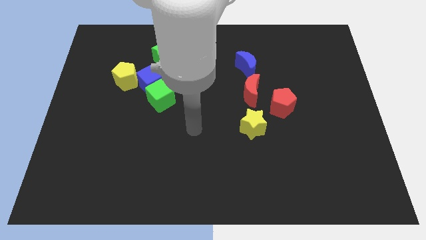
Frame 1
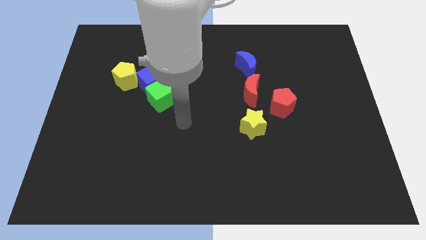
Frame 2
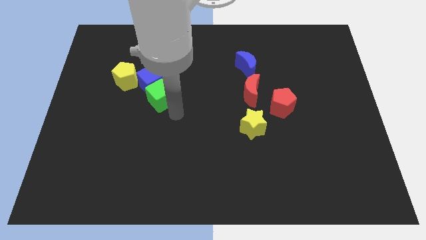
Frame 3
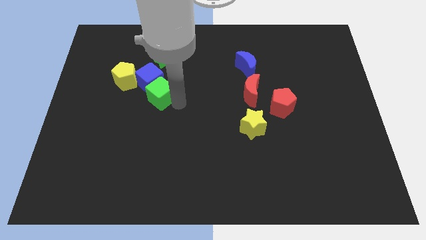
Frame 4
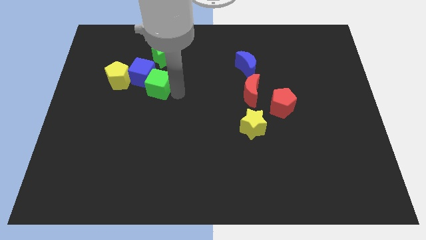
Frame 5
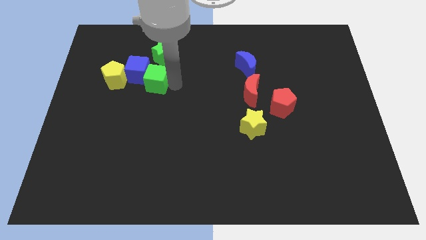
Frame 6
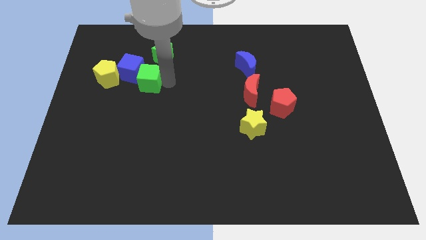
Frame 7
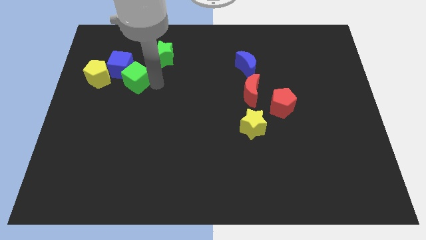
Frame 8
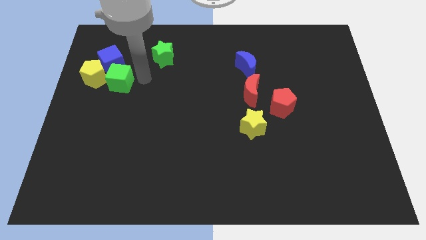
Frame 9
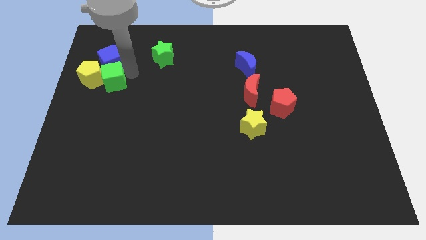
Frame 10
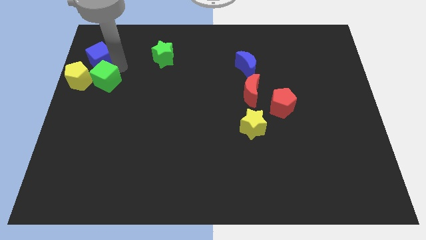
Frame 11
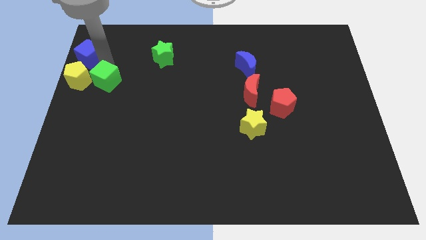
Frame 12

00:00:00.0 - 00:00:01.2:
pull the green cube apart from the blue cube

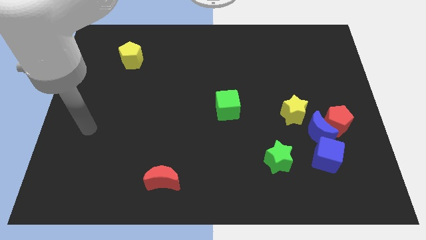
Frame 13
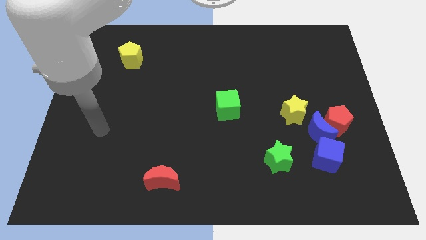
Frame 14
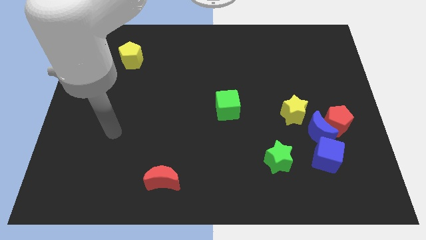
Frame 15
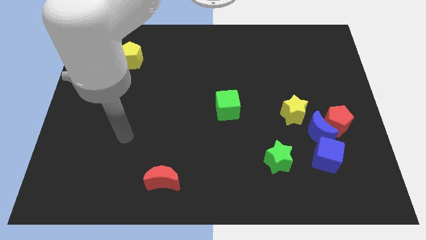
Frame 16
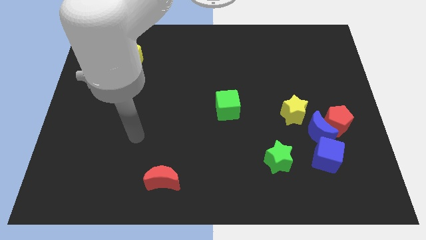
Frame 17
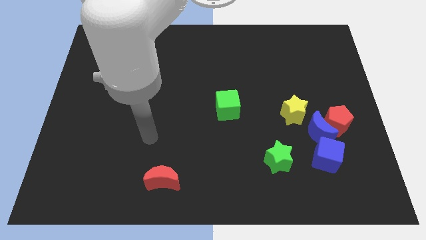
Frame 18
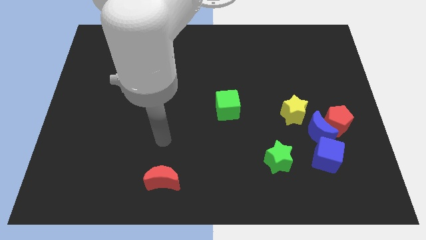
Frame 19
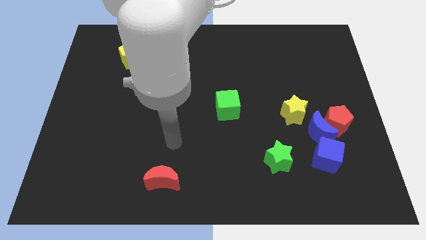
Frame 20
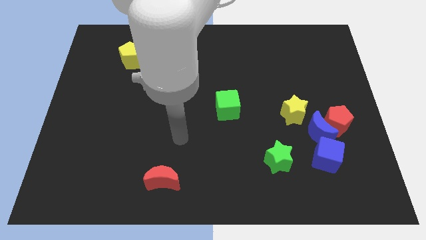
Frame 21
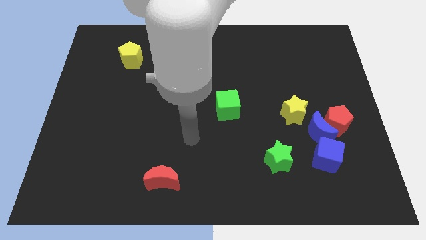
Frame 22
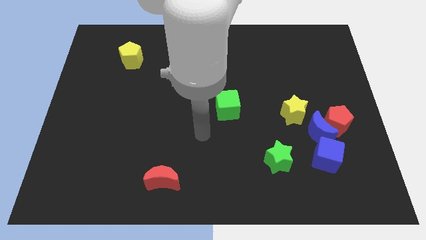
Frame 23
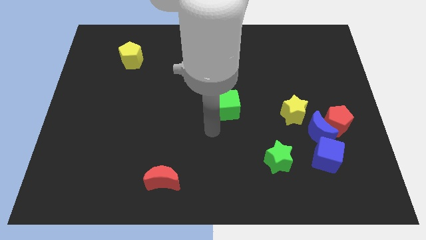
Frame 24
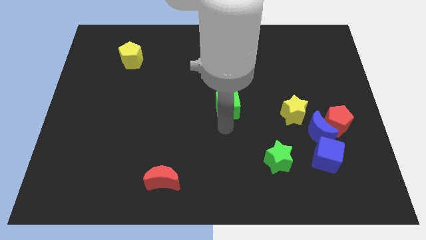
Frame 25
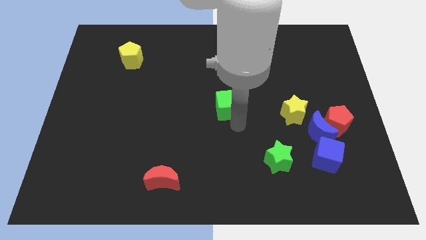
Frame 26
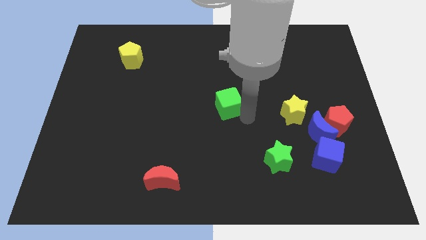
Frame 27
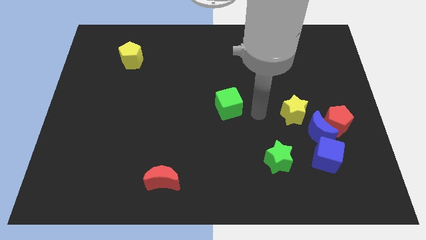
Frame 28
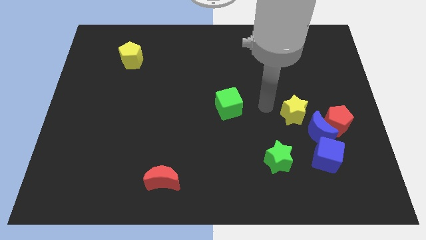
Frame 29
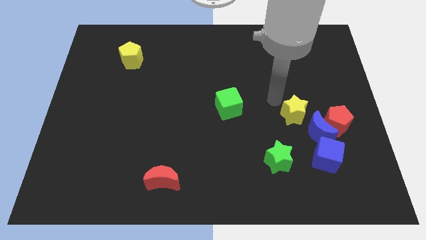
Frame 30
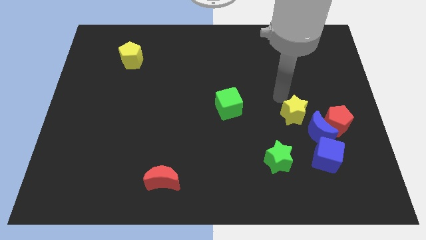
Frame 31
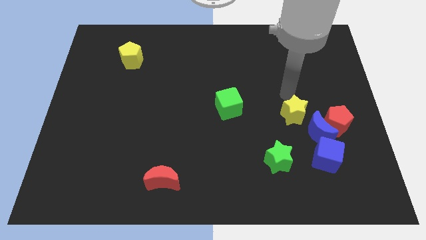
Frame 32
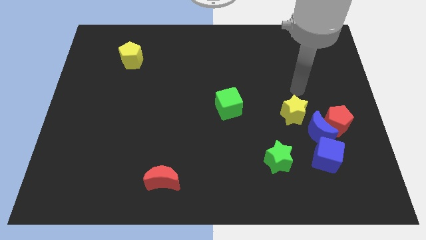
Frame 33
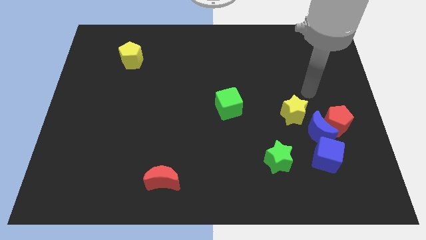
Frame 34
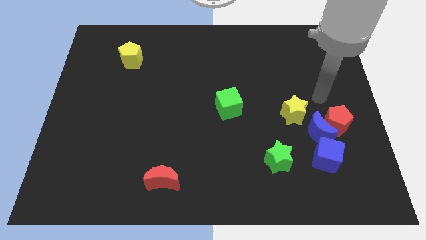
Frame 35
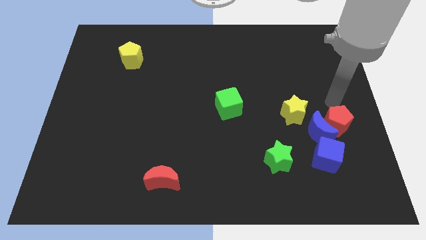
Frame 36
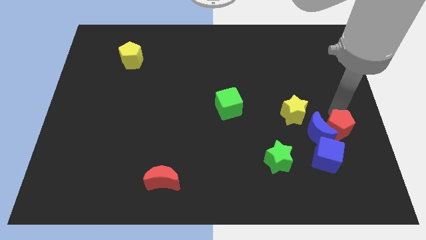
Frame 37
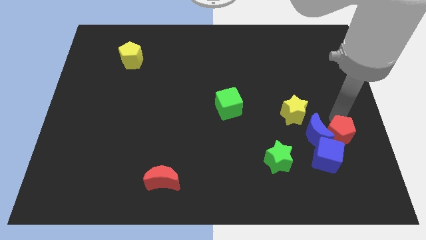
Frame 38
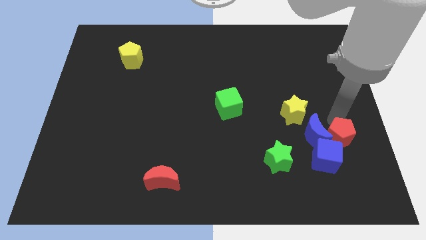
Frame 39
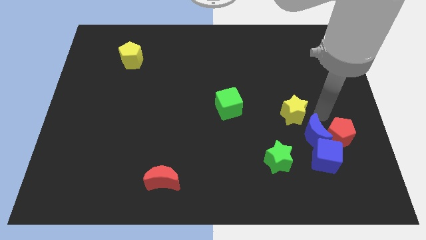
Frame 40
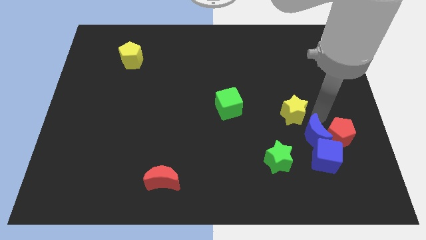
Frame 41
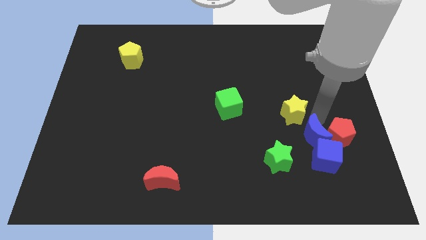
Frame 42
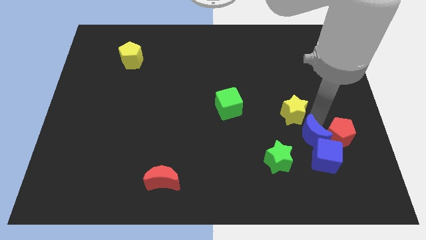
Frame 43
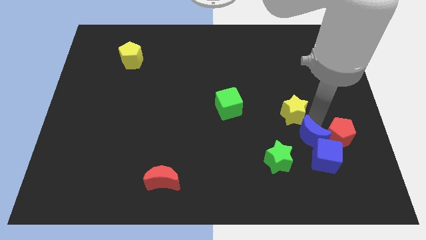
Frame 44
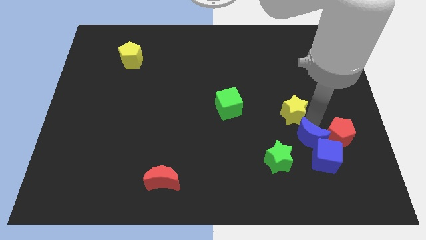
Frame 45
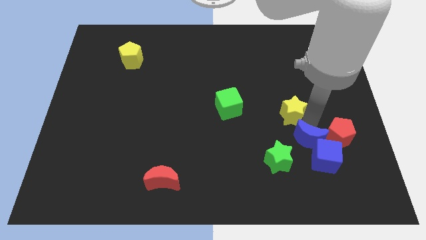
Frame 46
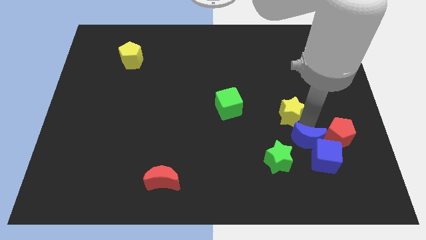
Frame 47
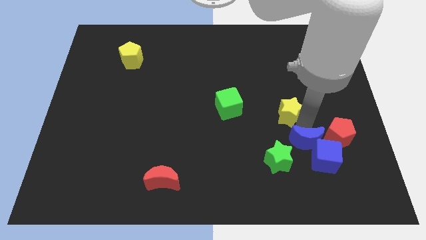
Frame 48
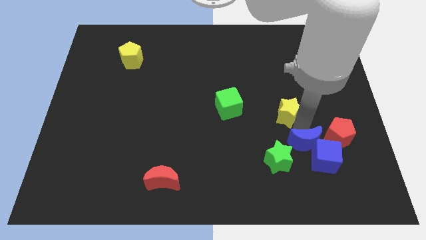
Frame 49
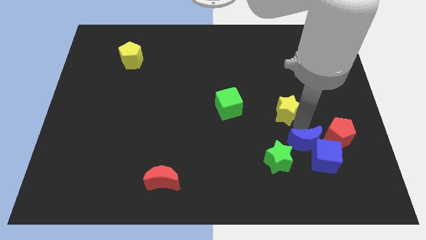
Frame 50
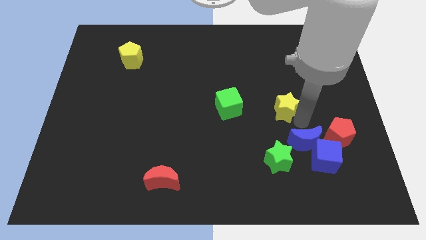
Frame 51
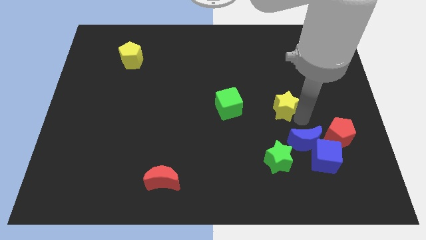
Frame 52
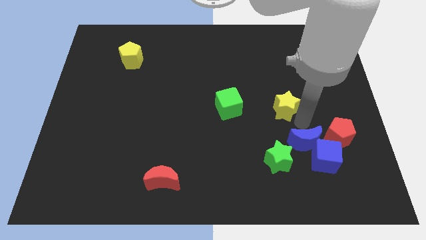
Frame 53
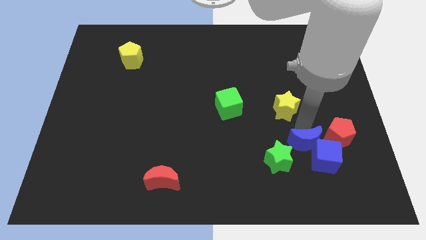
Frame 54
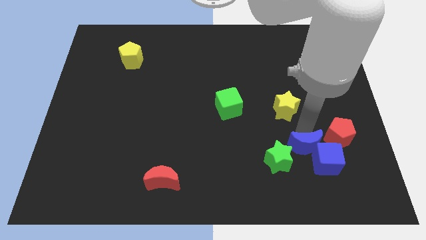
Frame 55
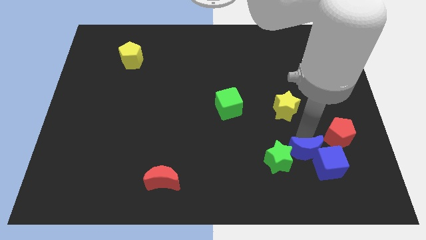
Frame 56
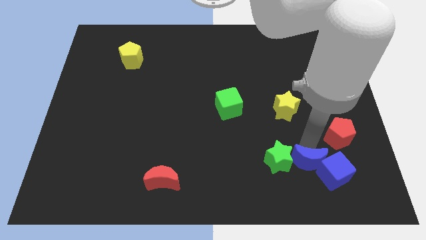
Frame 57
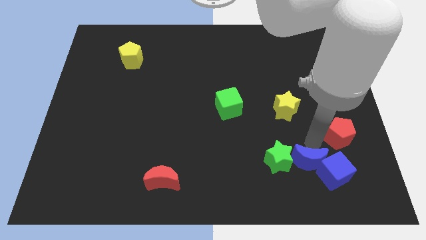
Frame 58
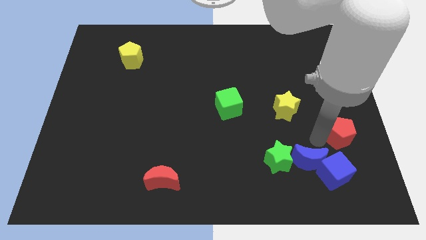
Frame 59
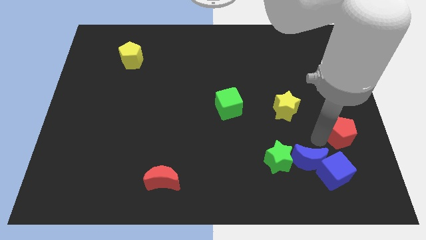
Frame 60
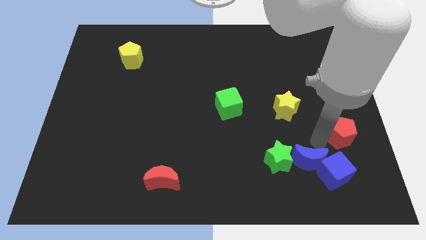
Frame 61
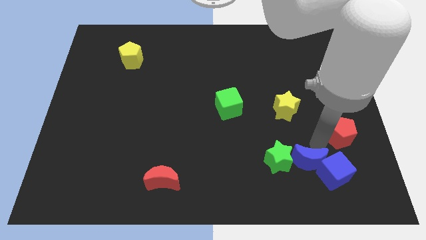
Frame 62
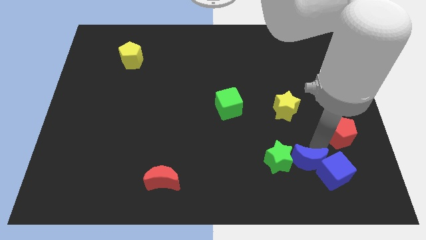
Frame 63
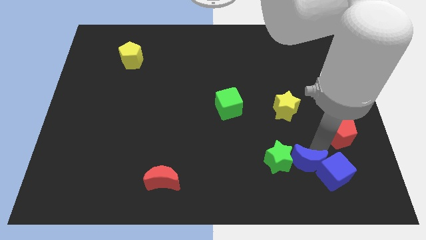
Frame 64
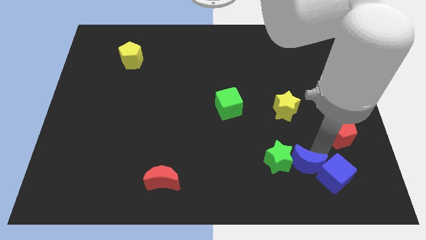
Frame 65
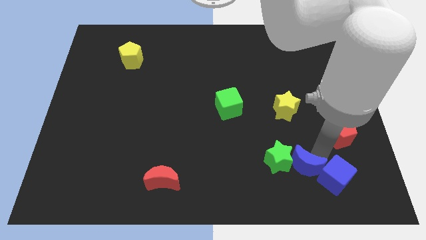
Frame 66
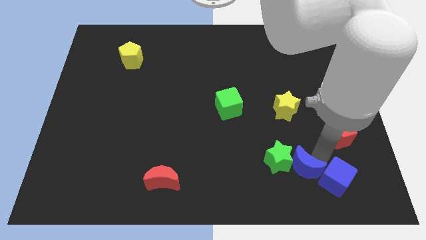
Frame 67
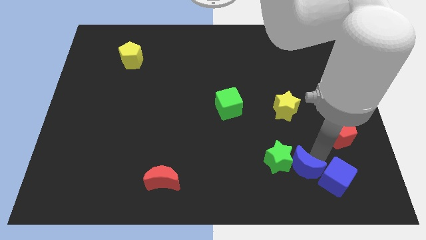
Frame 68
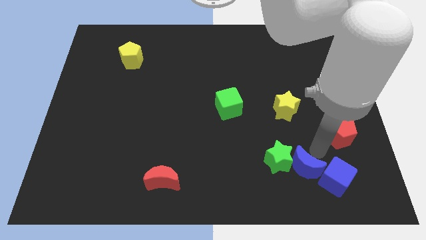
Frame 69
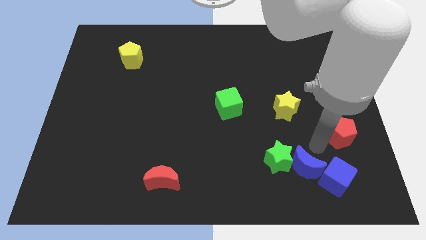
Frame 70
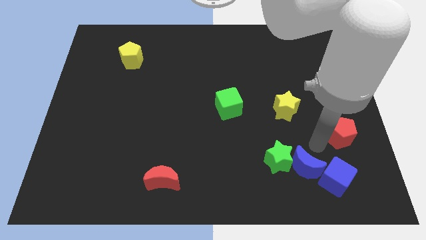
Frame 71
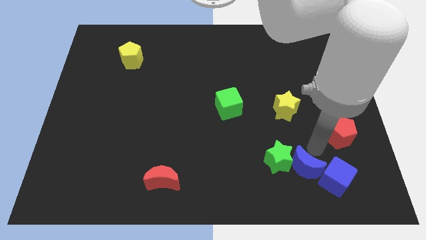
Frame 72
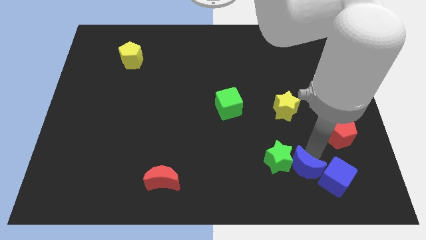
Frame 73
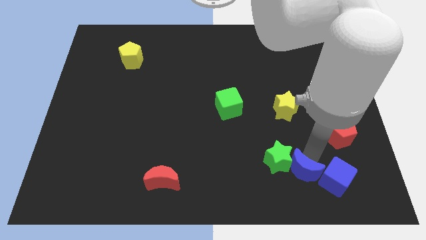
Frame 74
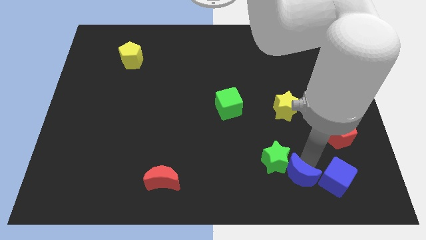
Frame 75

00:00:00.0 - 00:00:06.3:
pull the blue moon apart from the red pentagon, blue cube, and yellow star

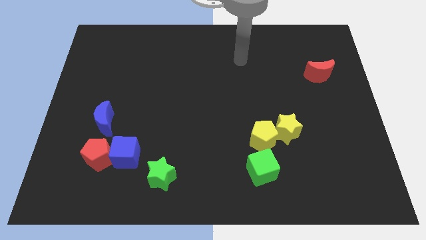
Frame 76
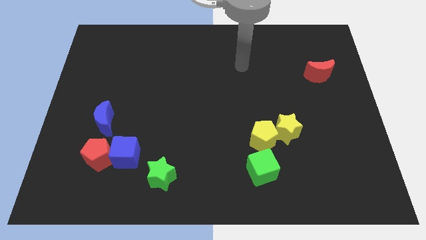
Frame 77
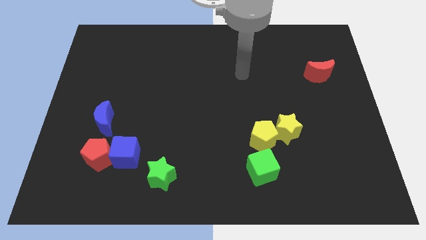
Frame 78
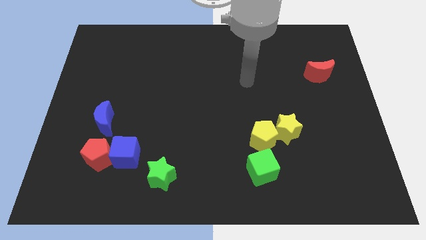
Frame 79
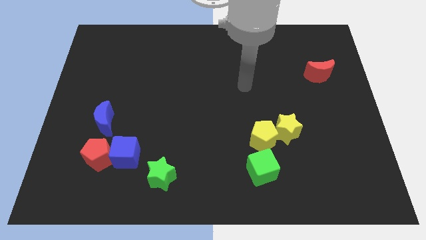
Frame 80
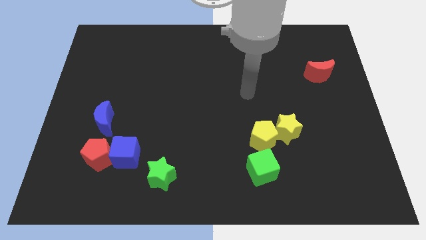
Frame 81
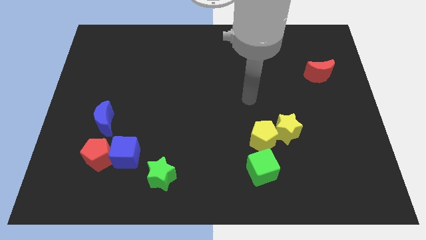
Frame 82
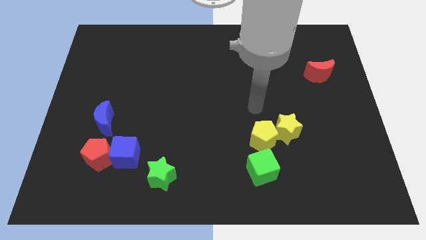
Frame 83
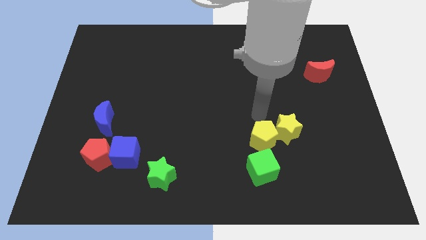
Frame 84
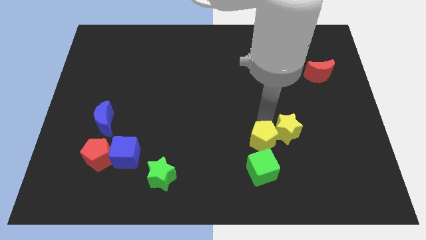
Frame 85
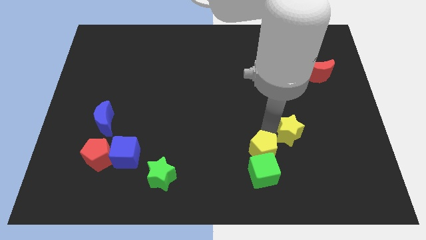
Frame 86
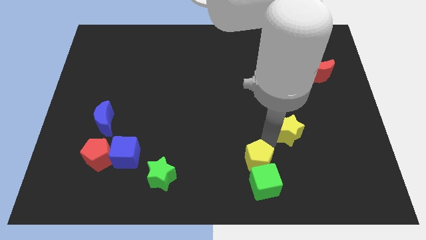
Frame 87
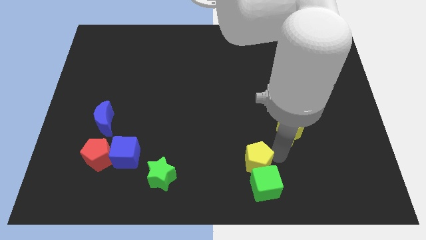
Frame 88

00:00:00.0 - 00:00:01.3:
separate the yellow star from the yellow pentagon

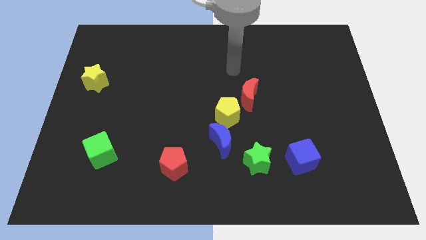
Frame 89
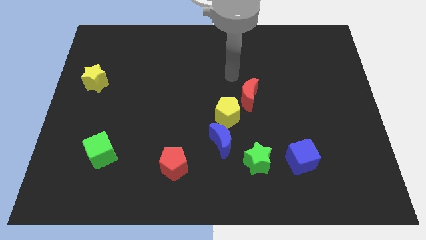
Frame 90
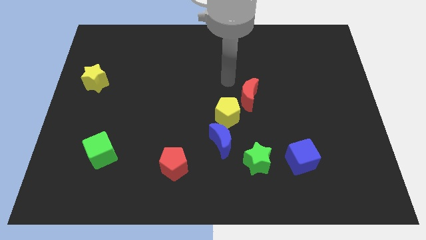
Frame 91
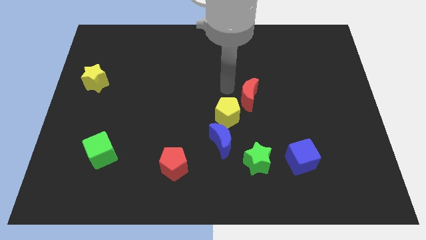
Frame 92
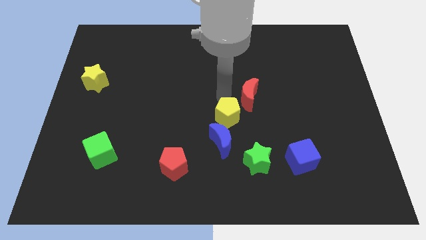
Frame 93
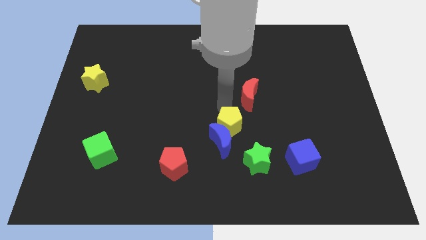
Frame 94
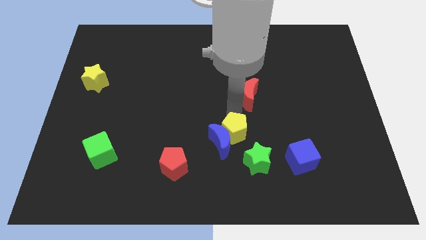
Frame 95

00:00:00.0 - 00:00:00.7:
separate the red moon from the yellow pentagon
